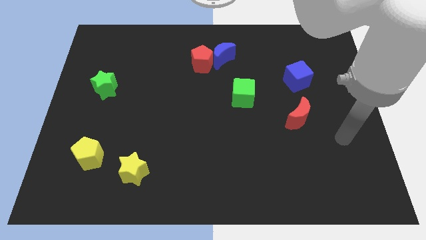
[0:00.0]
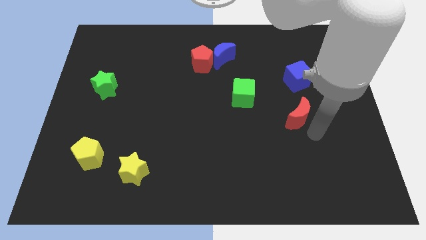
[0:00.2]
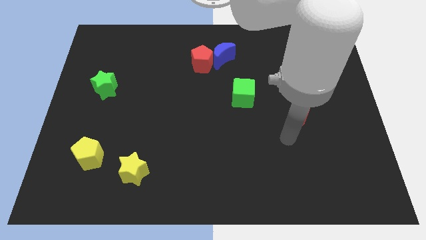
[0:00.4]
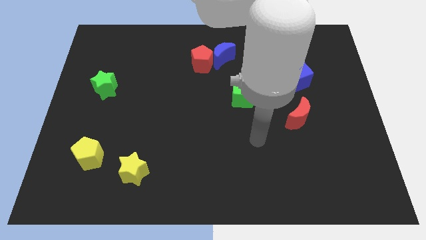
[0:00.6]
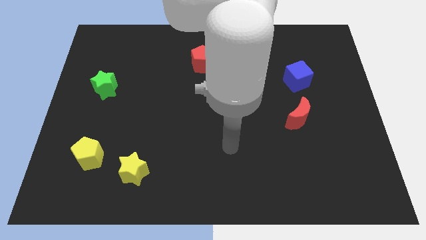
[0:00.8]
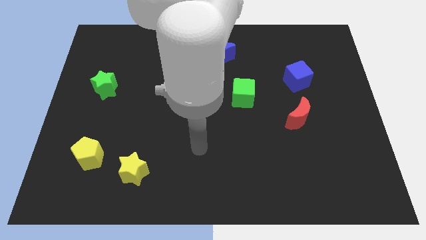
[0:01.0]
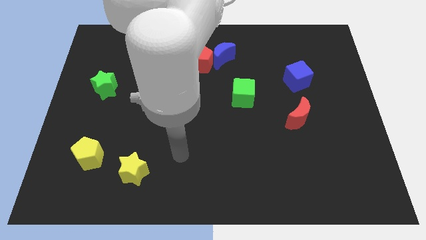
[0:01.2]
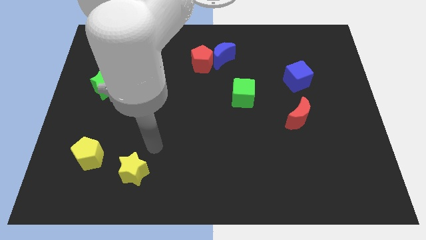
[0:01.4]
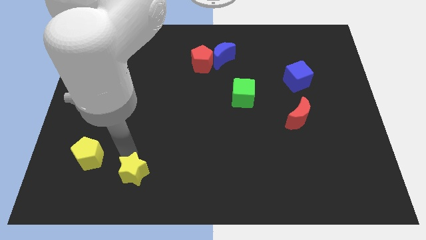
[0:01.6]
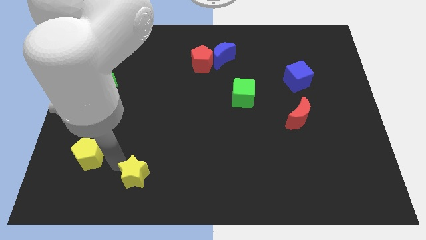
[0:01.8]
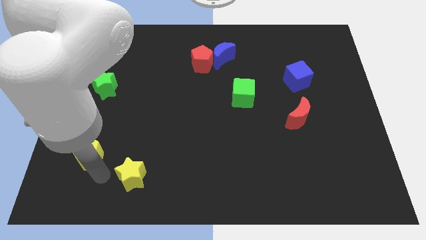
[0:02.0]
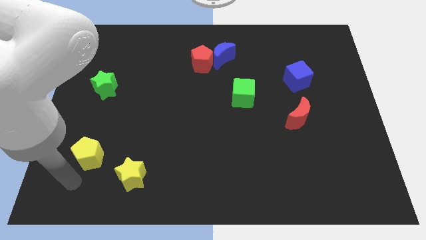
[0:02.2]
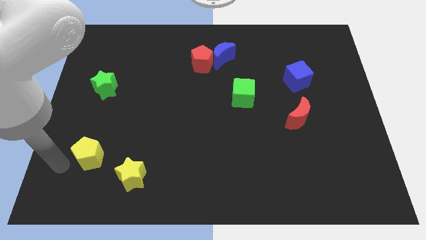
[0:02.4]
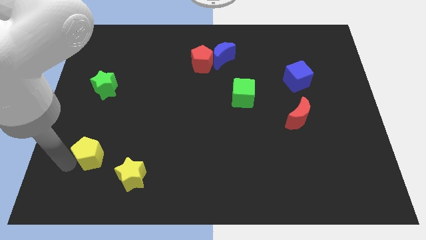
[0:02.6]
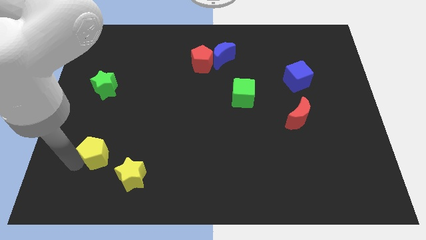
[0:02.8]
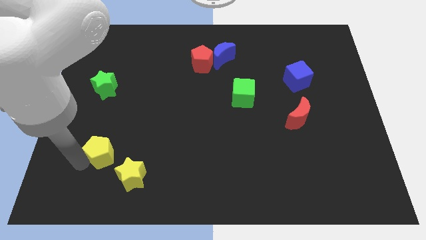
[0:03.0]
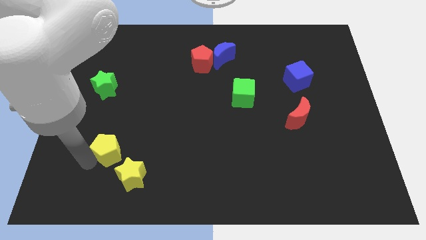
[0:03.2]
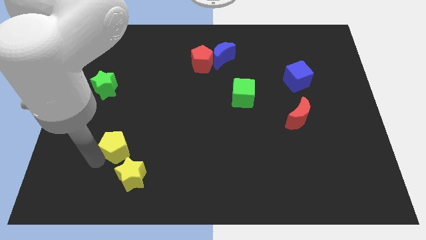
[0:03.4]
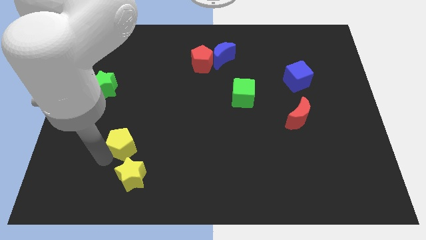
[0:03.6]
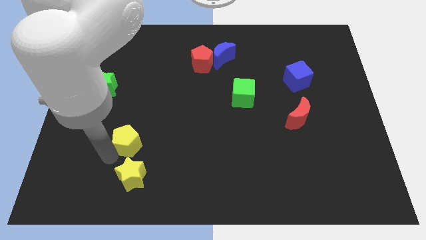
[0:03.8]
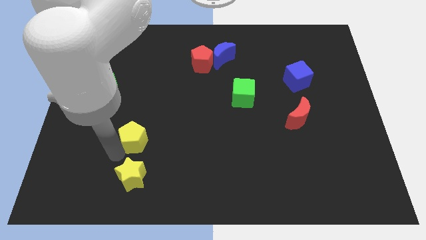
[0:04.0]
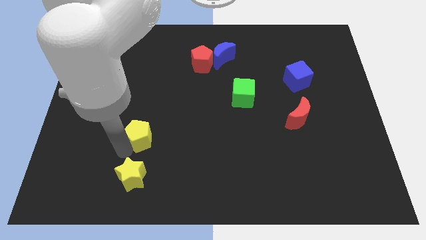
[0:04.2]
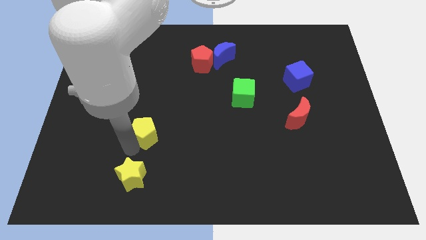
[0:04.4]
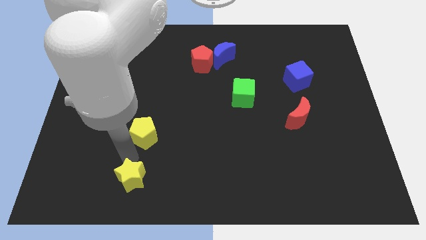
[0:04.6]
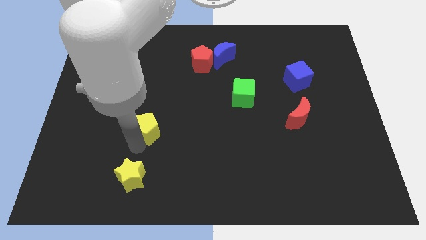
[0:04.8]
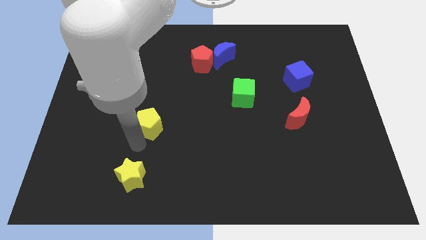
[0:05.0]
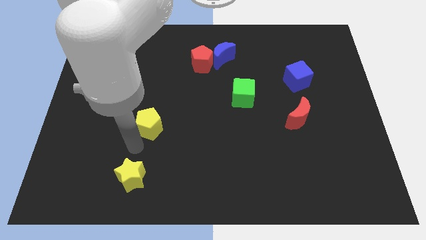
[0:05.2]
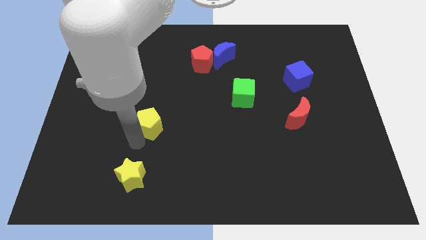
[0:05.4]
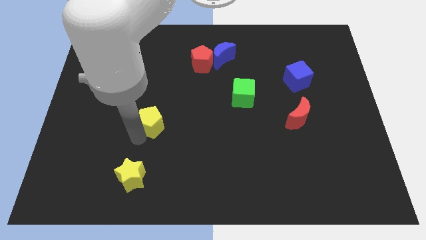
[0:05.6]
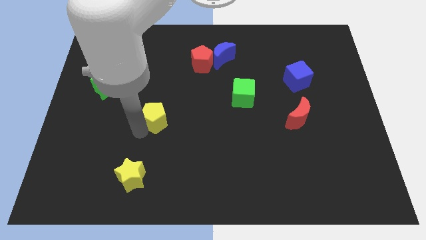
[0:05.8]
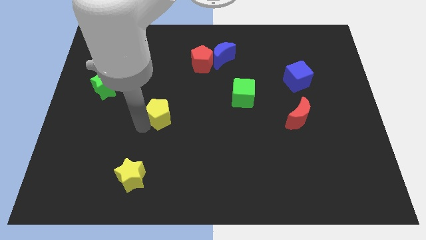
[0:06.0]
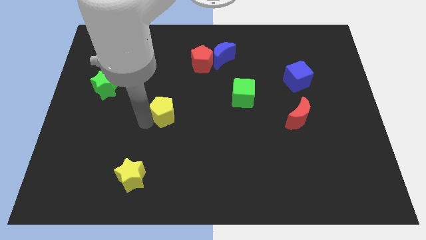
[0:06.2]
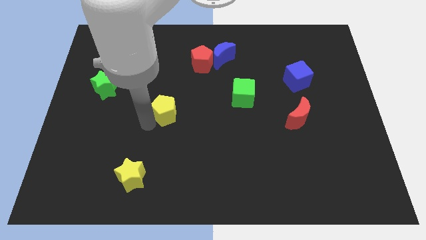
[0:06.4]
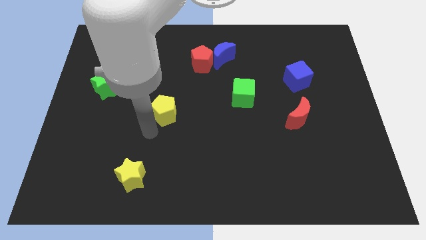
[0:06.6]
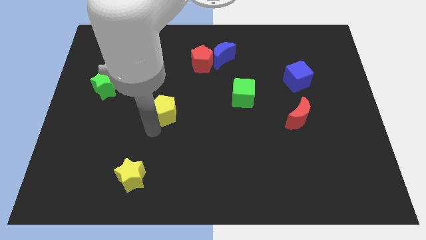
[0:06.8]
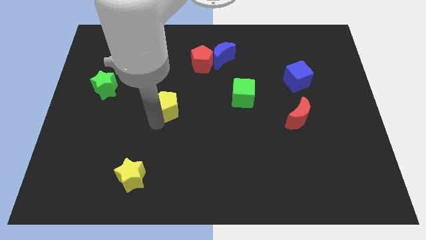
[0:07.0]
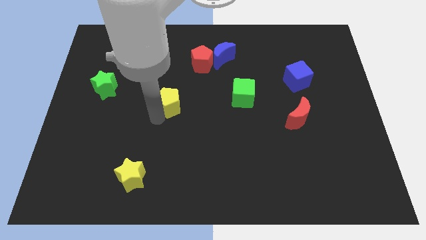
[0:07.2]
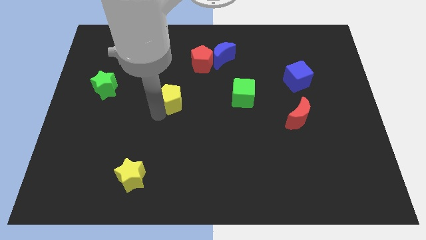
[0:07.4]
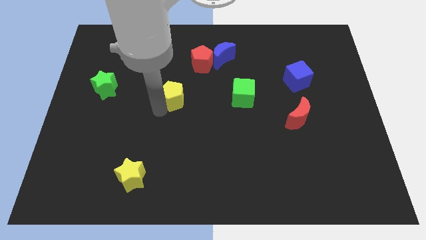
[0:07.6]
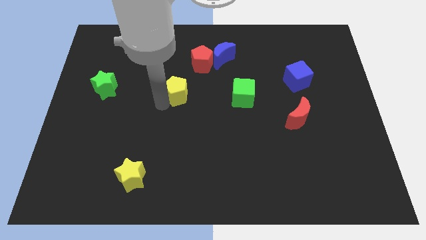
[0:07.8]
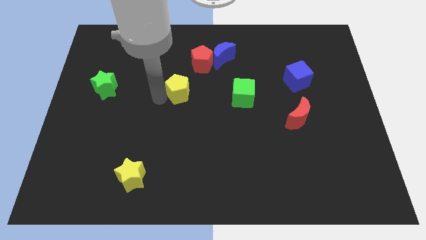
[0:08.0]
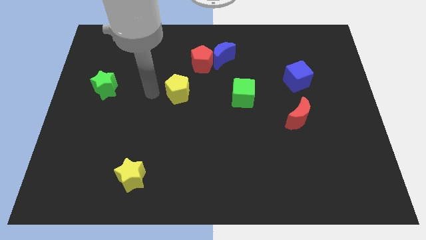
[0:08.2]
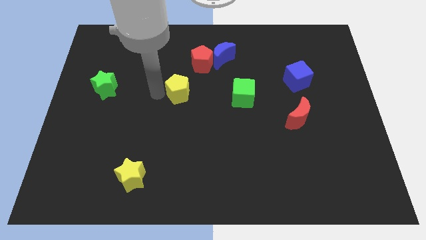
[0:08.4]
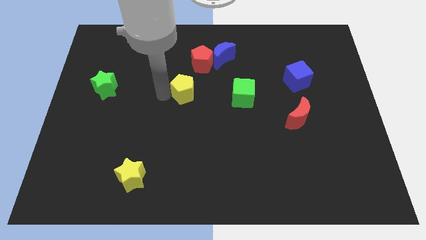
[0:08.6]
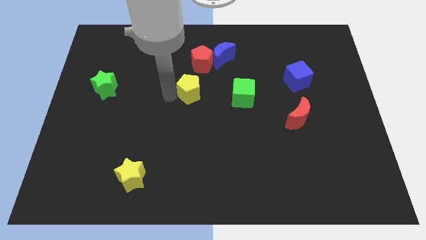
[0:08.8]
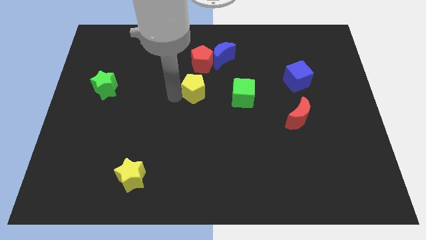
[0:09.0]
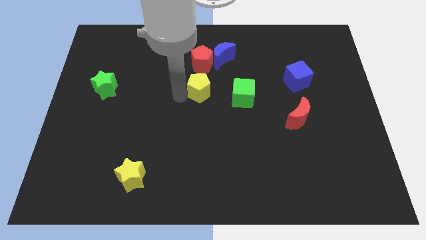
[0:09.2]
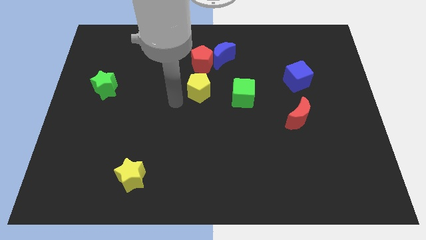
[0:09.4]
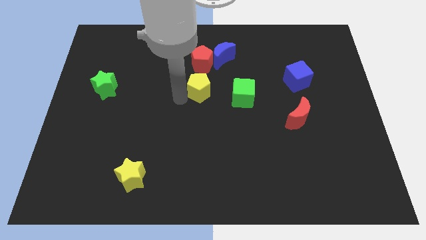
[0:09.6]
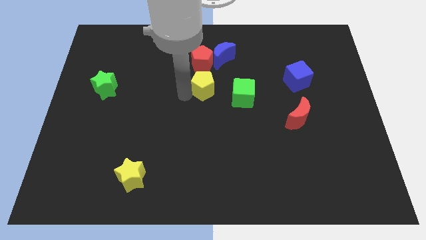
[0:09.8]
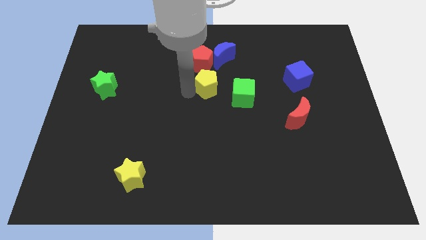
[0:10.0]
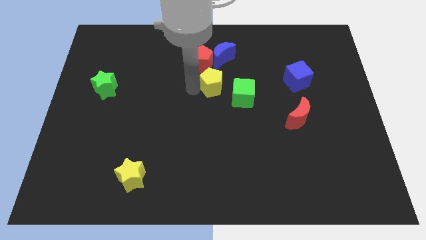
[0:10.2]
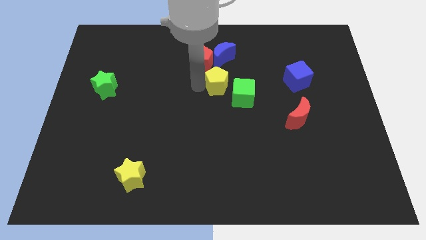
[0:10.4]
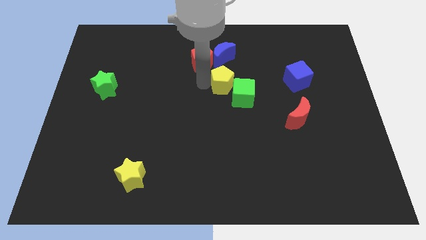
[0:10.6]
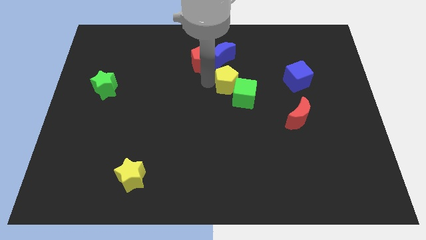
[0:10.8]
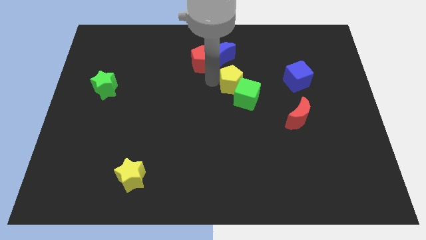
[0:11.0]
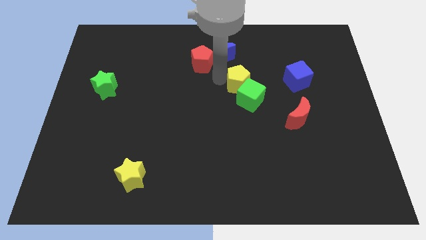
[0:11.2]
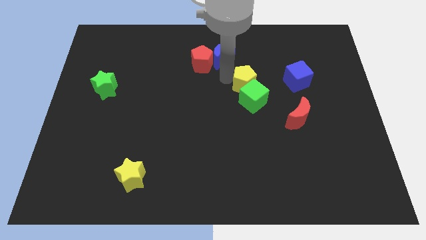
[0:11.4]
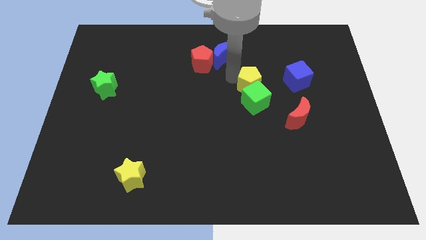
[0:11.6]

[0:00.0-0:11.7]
push the yellow pentagon diagonally up and to the right of the green cube

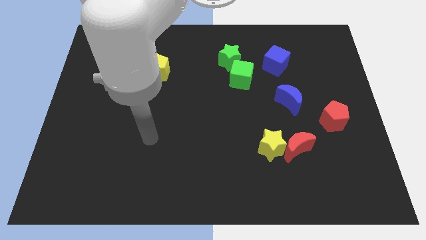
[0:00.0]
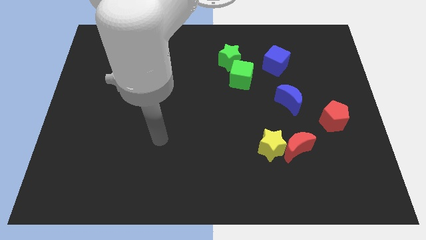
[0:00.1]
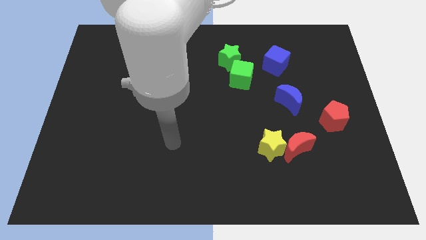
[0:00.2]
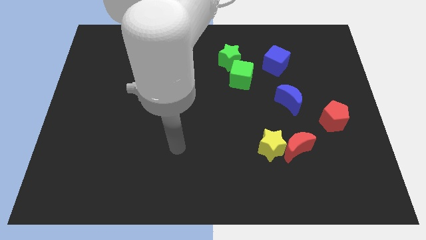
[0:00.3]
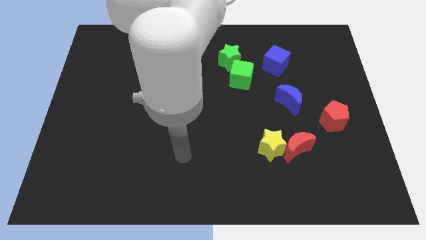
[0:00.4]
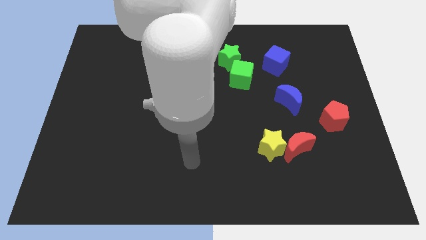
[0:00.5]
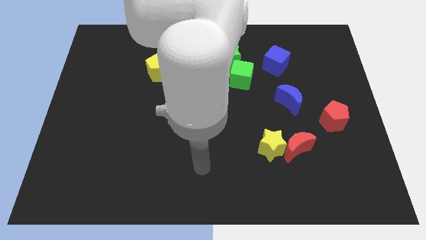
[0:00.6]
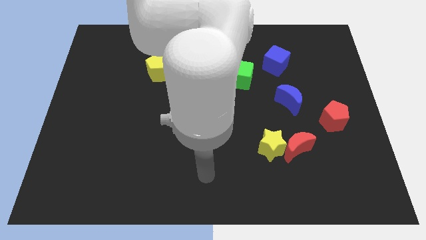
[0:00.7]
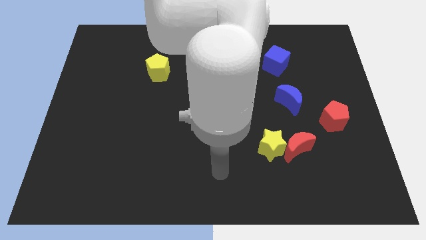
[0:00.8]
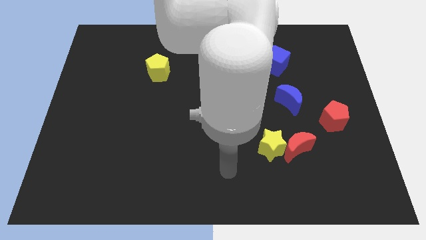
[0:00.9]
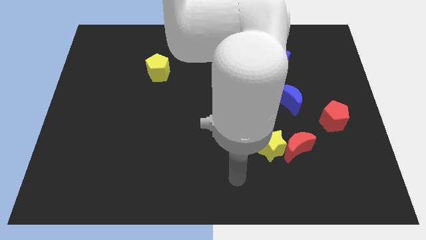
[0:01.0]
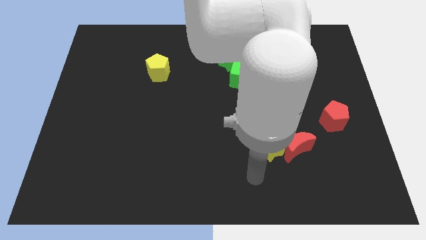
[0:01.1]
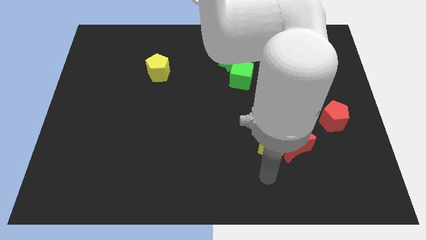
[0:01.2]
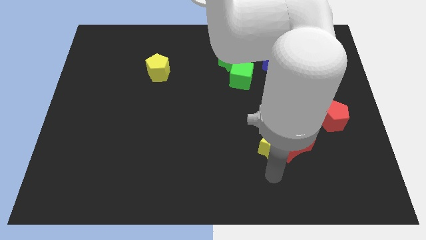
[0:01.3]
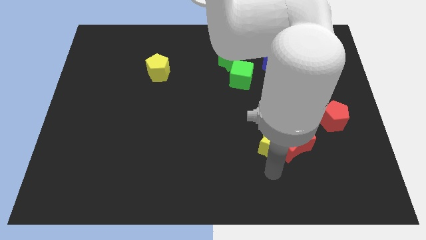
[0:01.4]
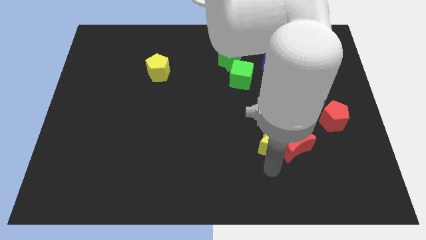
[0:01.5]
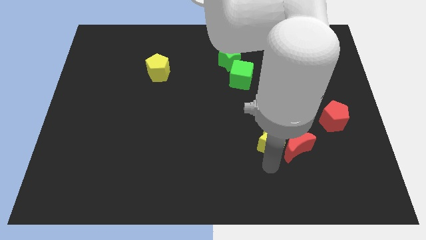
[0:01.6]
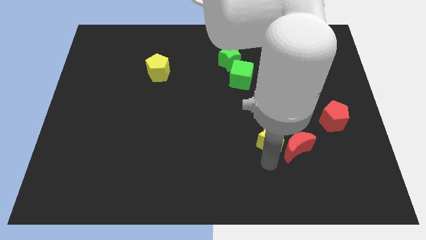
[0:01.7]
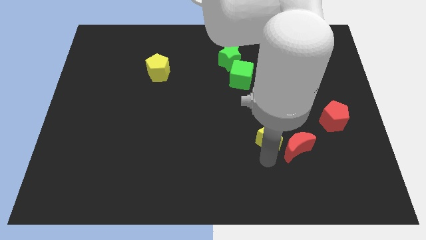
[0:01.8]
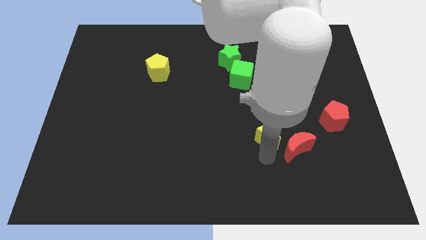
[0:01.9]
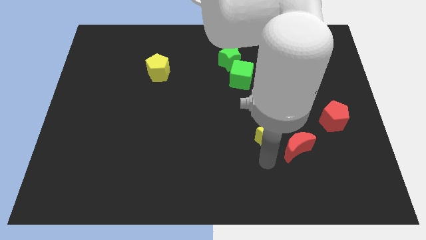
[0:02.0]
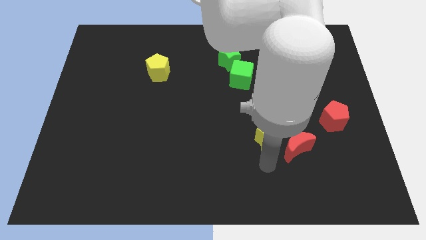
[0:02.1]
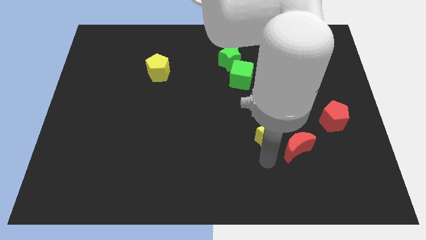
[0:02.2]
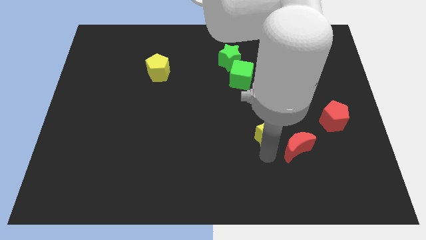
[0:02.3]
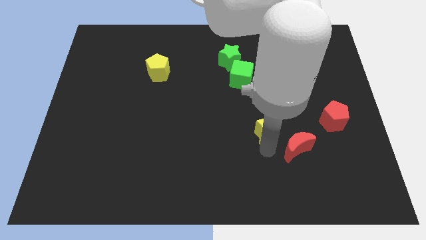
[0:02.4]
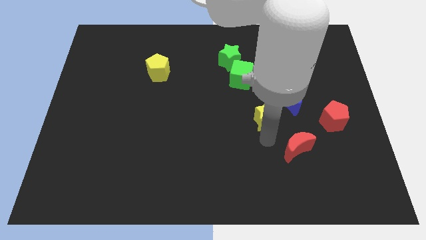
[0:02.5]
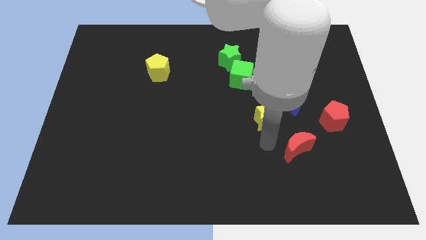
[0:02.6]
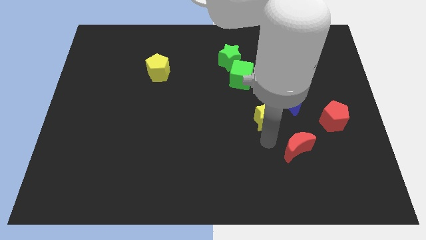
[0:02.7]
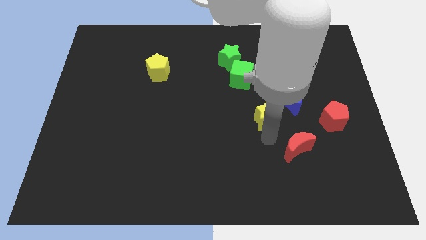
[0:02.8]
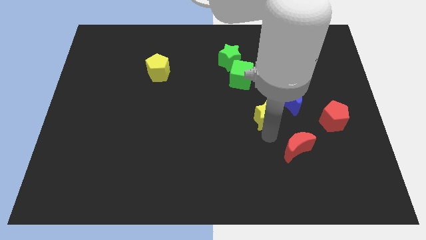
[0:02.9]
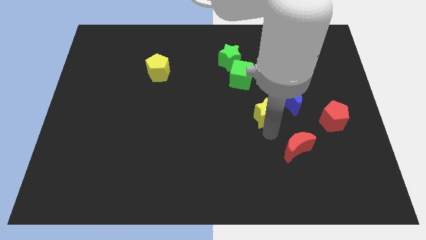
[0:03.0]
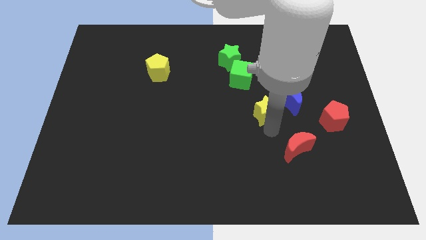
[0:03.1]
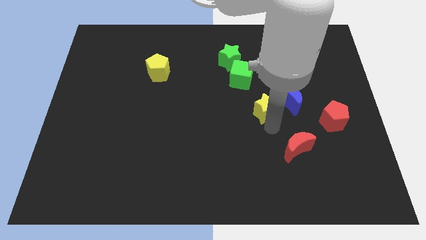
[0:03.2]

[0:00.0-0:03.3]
slide the yellow star to the bottom right side of the green cube
